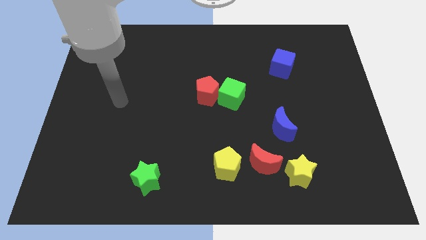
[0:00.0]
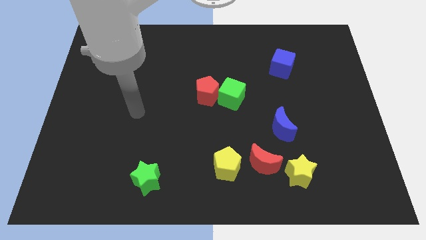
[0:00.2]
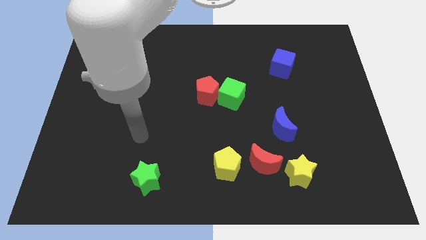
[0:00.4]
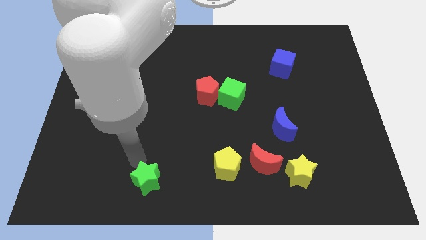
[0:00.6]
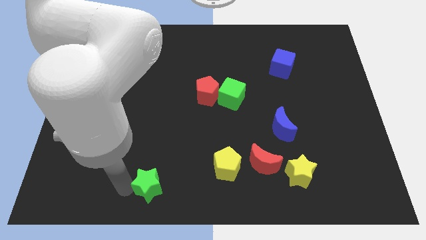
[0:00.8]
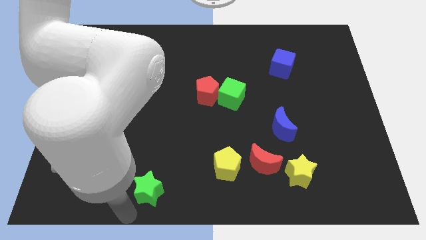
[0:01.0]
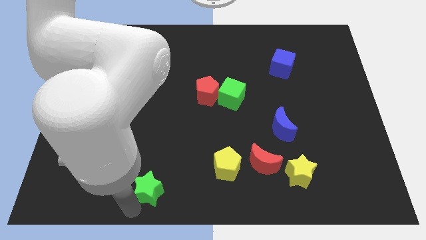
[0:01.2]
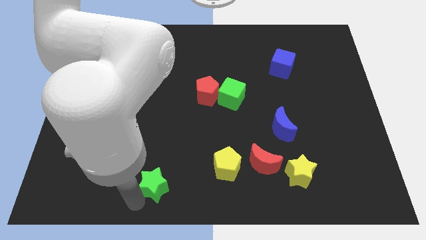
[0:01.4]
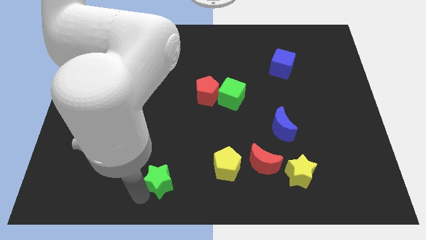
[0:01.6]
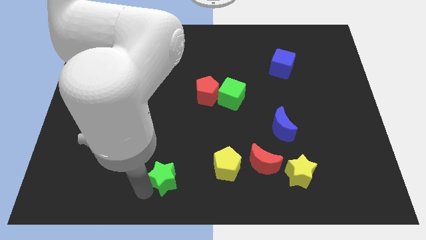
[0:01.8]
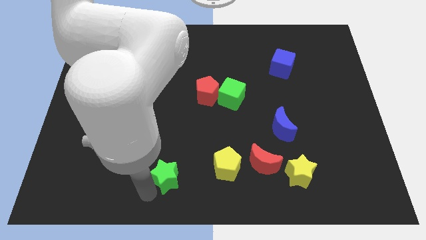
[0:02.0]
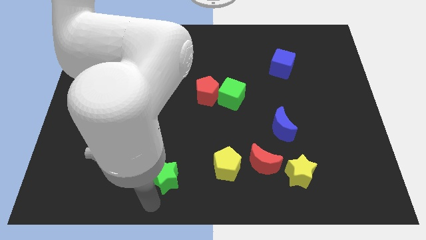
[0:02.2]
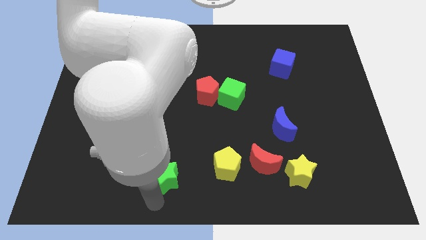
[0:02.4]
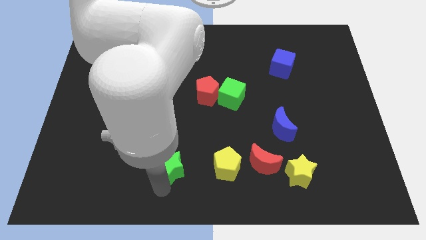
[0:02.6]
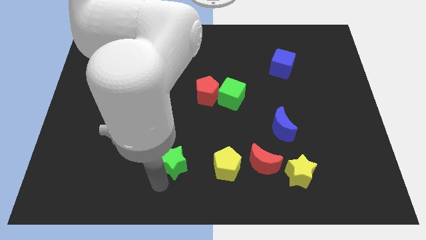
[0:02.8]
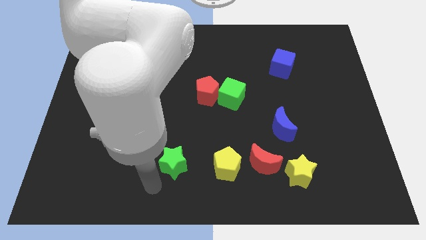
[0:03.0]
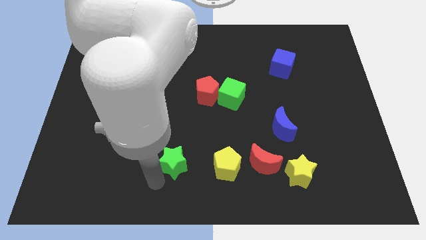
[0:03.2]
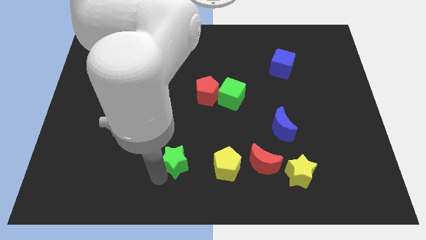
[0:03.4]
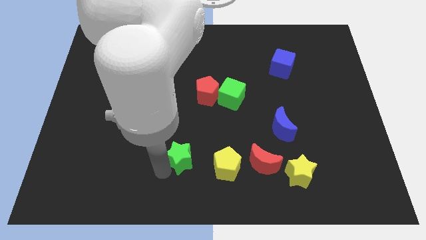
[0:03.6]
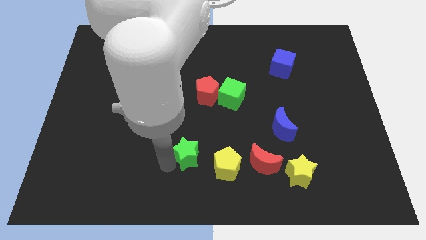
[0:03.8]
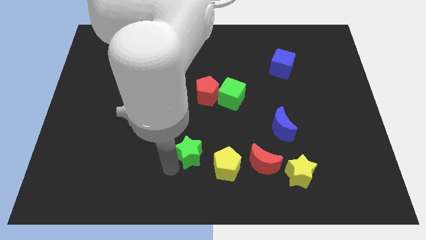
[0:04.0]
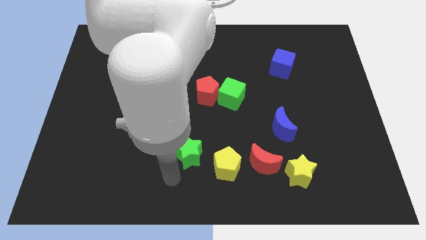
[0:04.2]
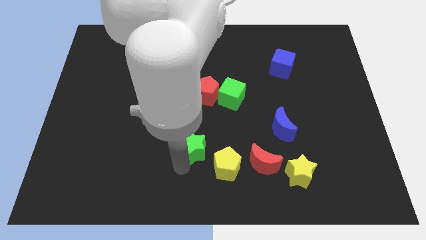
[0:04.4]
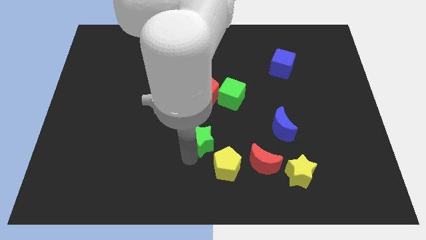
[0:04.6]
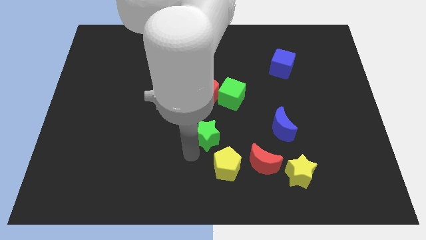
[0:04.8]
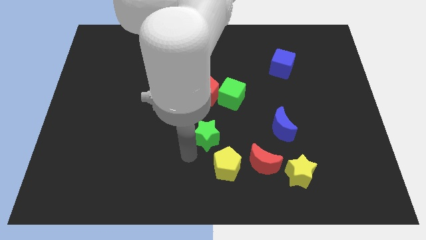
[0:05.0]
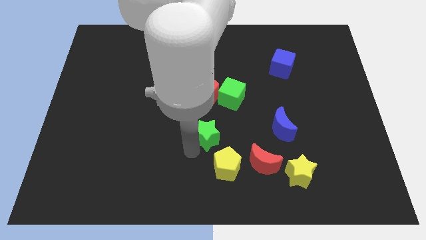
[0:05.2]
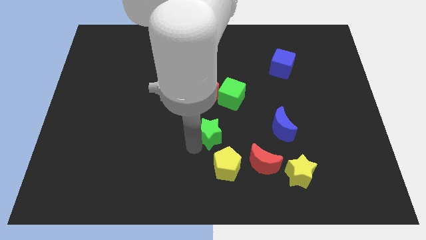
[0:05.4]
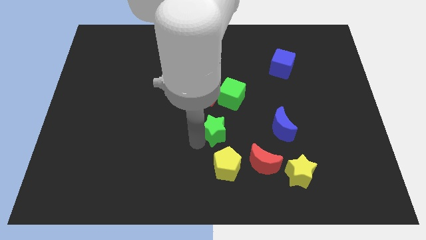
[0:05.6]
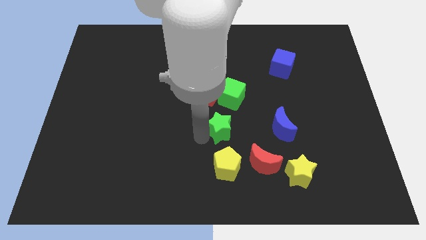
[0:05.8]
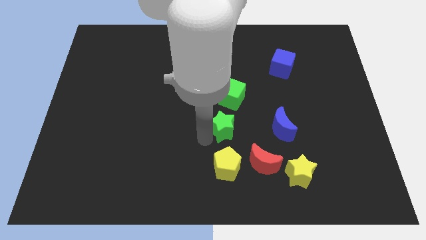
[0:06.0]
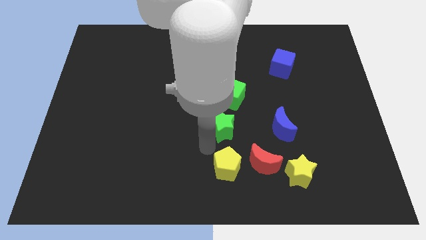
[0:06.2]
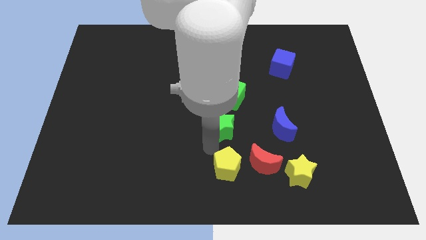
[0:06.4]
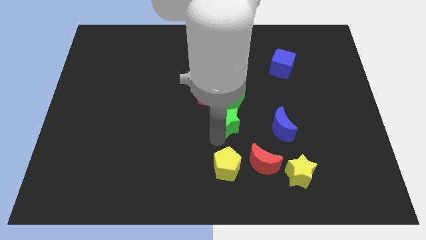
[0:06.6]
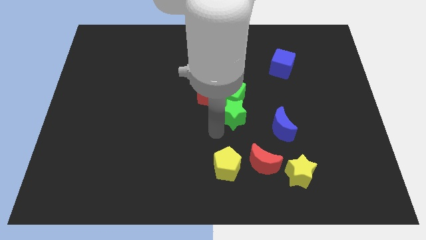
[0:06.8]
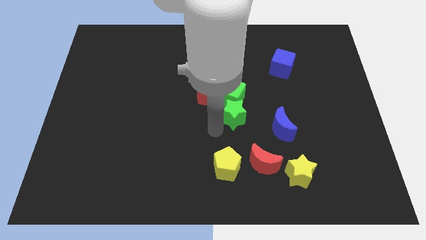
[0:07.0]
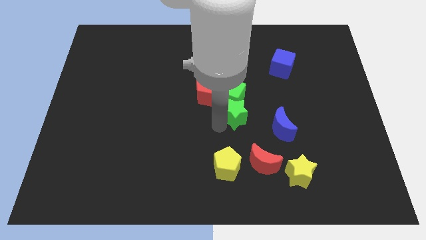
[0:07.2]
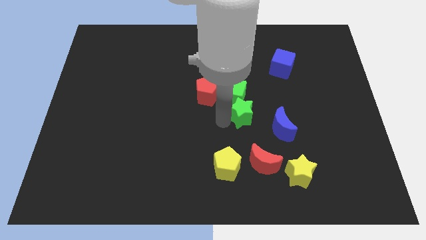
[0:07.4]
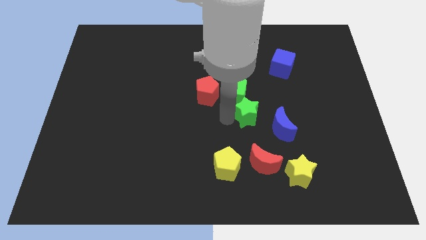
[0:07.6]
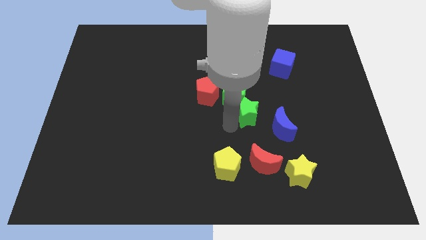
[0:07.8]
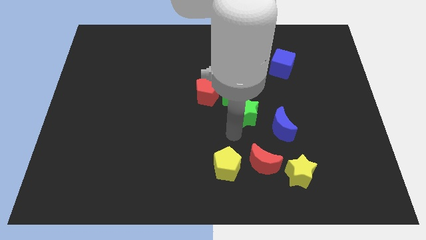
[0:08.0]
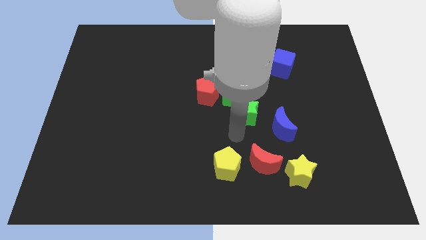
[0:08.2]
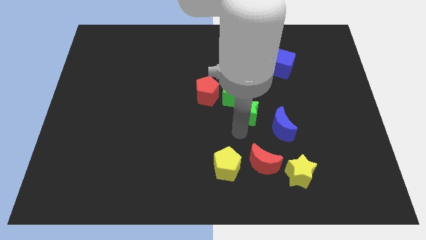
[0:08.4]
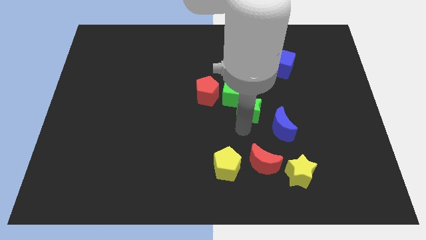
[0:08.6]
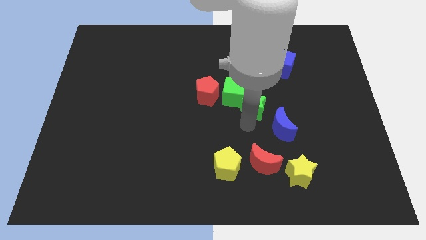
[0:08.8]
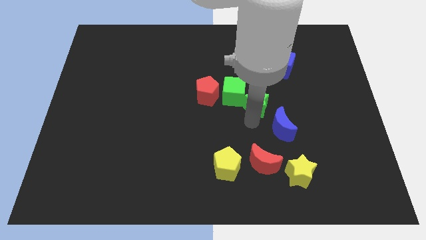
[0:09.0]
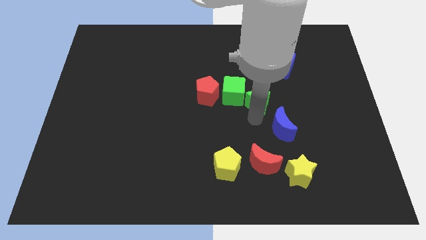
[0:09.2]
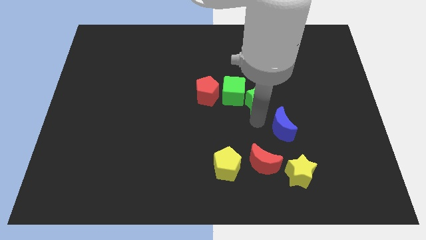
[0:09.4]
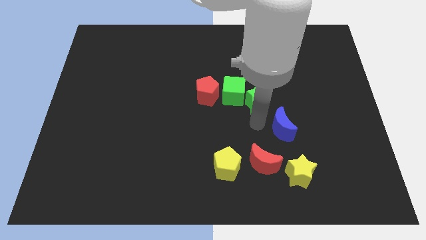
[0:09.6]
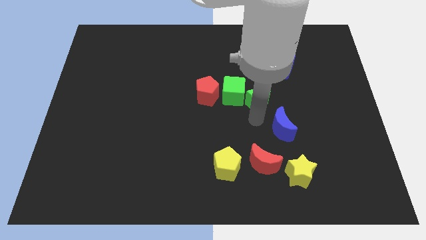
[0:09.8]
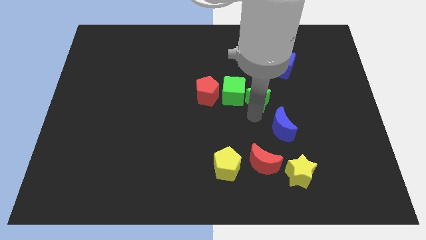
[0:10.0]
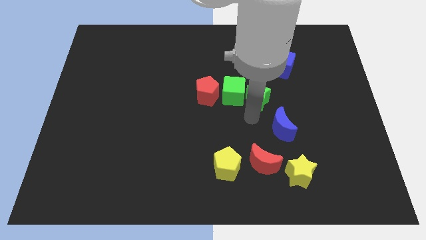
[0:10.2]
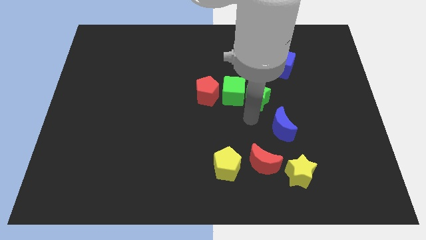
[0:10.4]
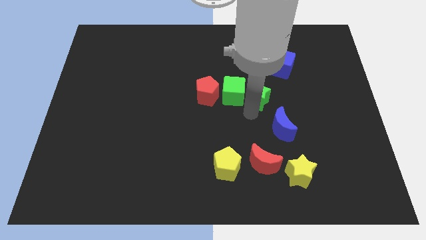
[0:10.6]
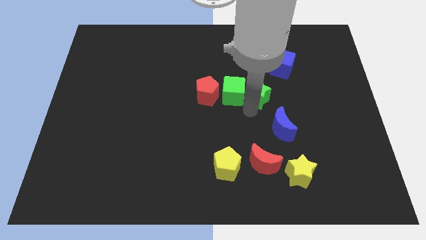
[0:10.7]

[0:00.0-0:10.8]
slide the green star diagonally down and to the left of the blue cube

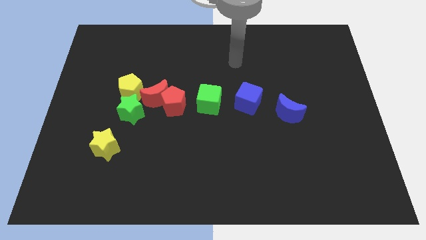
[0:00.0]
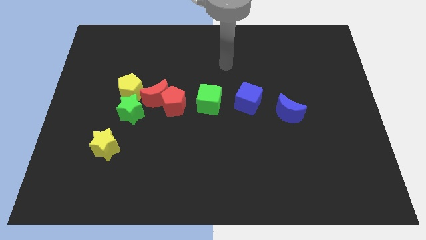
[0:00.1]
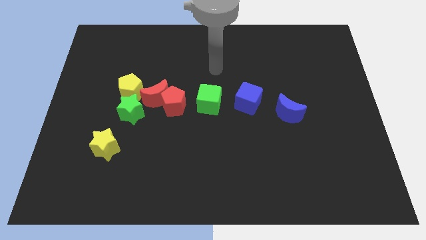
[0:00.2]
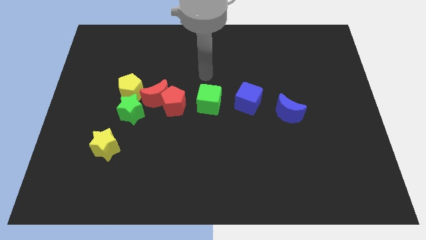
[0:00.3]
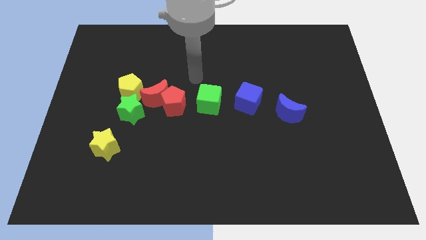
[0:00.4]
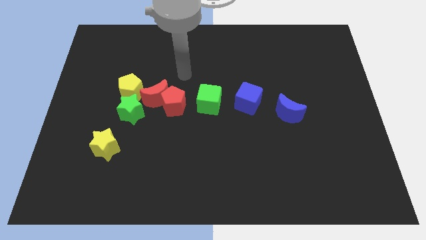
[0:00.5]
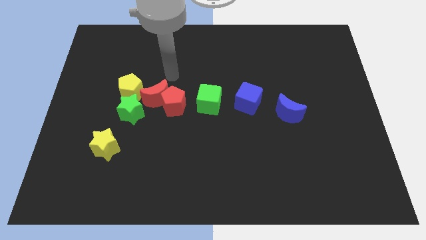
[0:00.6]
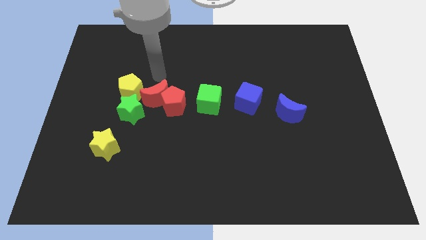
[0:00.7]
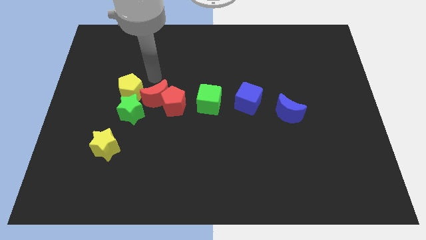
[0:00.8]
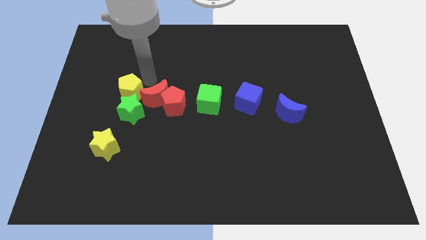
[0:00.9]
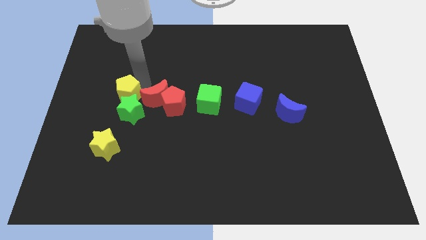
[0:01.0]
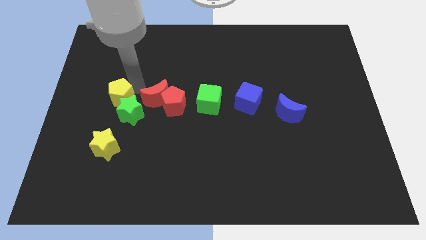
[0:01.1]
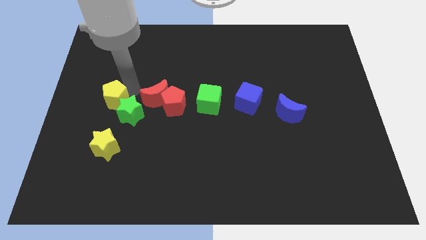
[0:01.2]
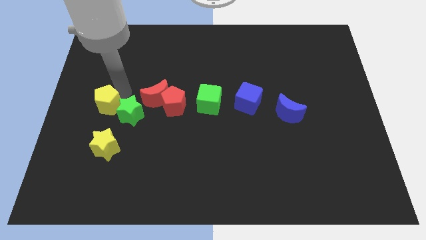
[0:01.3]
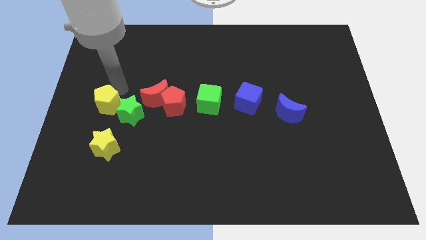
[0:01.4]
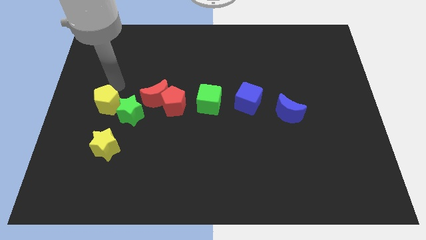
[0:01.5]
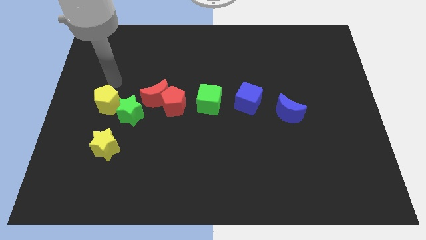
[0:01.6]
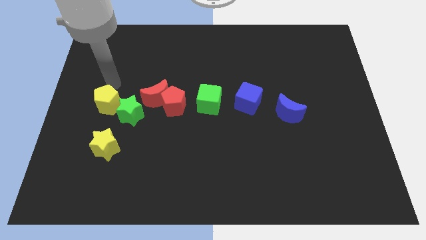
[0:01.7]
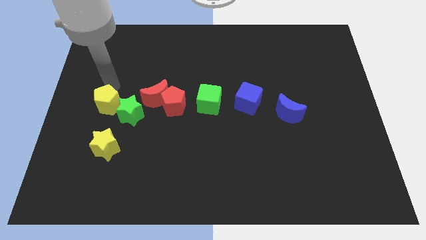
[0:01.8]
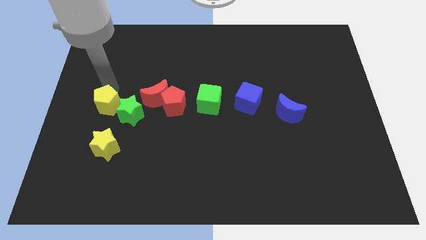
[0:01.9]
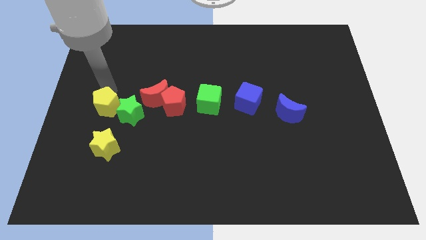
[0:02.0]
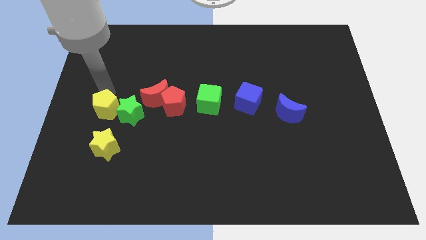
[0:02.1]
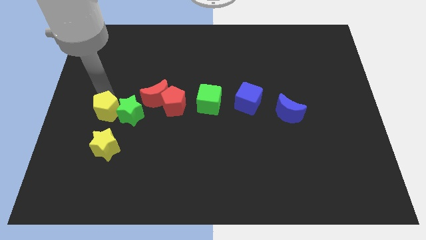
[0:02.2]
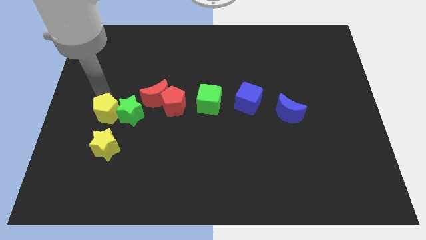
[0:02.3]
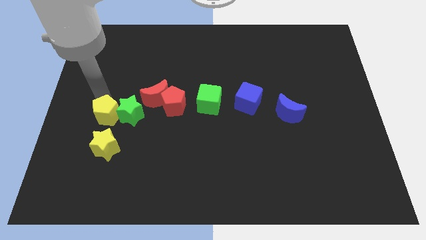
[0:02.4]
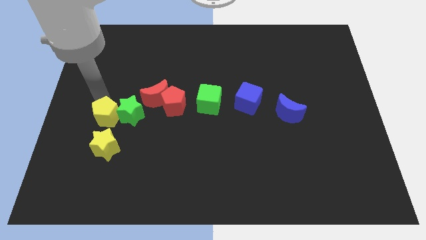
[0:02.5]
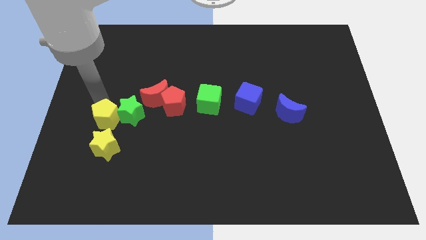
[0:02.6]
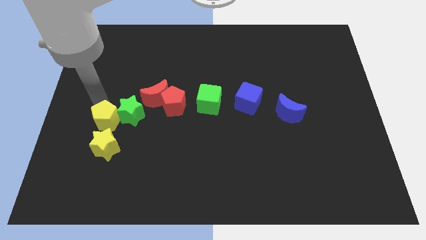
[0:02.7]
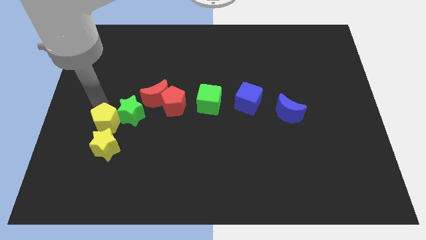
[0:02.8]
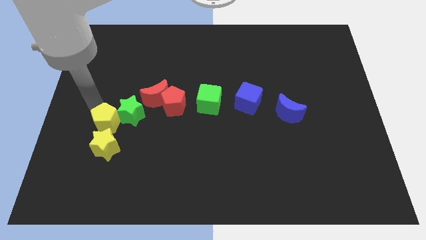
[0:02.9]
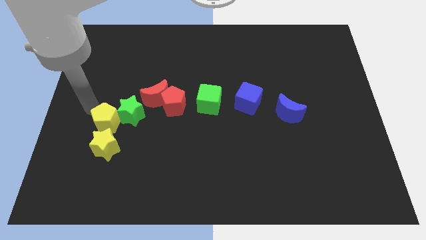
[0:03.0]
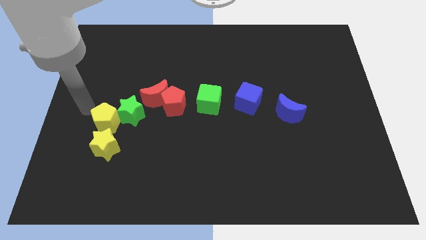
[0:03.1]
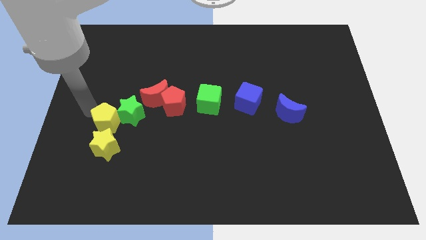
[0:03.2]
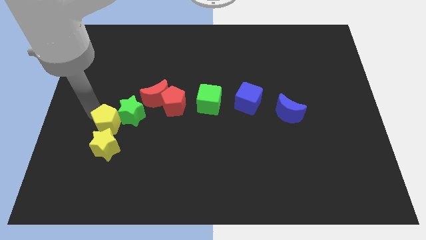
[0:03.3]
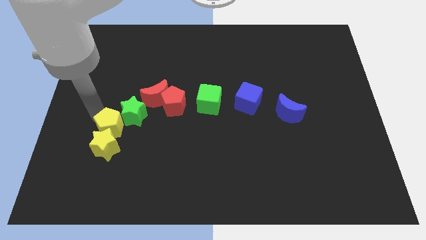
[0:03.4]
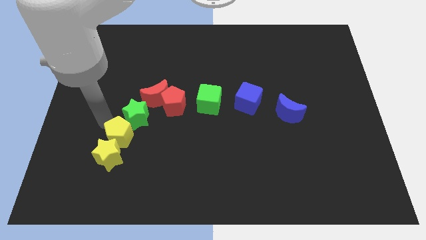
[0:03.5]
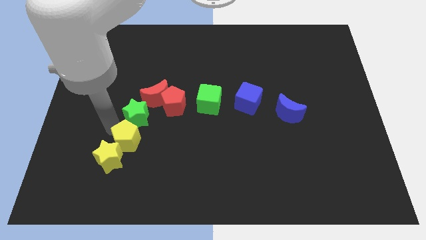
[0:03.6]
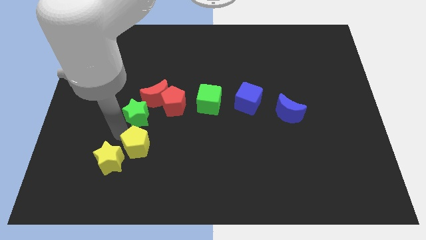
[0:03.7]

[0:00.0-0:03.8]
slide the yellow pentagon just right of the yellow star
